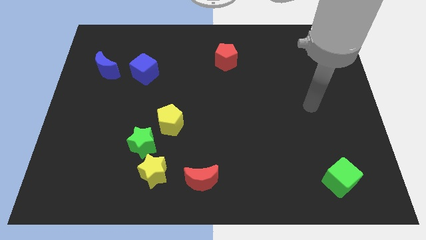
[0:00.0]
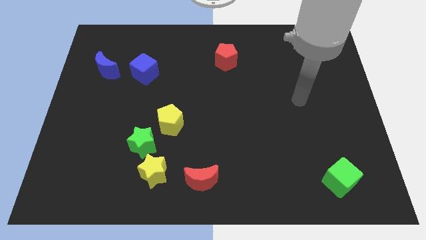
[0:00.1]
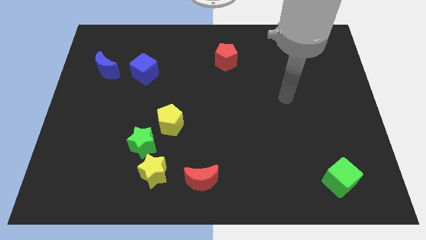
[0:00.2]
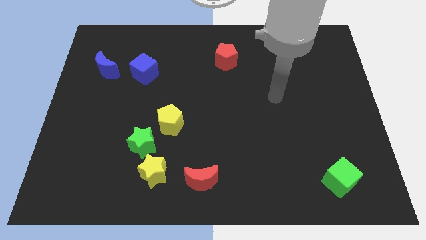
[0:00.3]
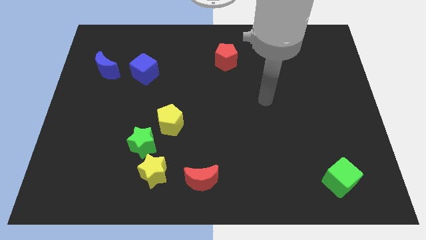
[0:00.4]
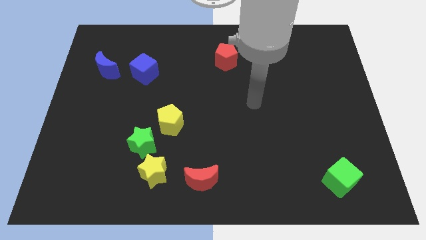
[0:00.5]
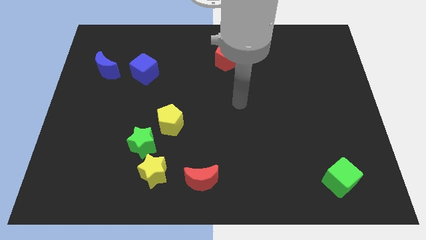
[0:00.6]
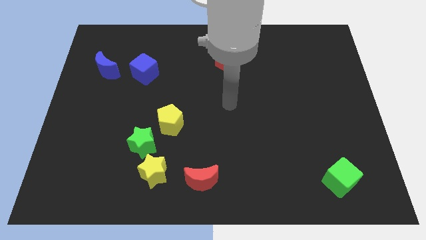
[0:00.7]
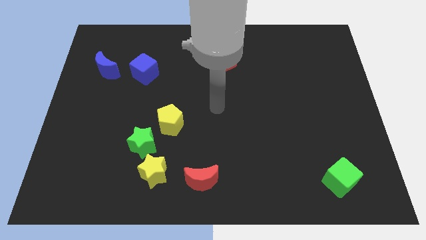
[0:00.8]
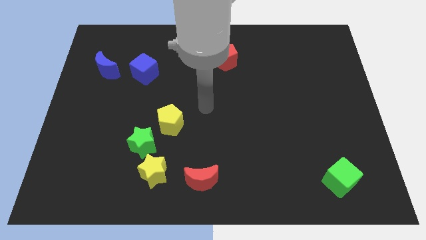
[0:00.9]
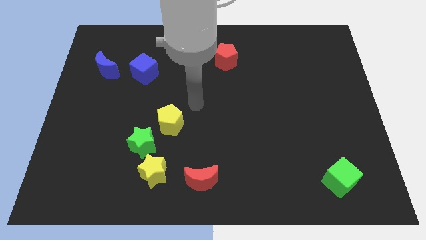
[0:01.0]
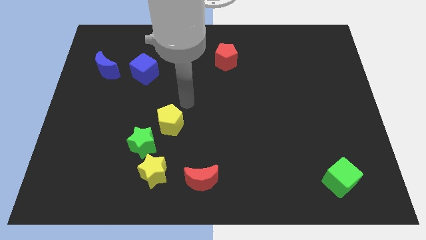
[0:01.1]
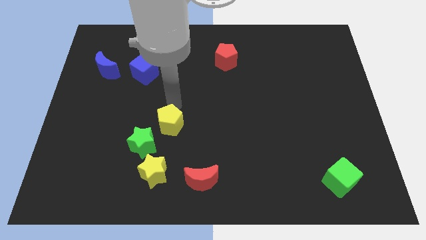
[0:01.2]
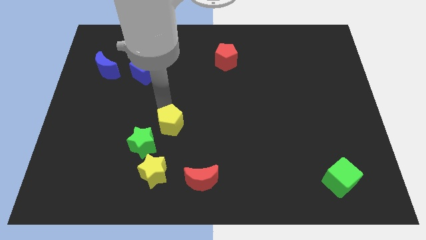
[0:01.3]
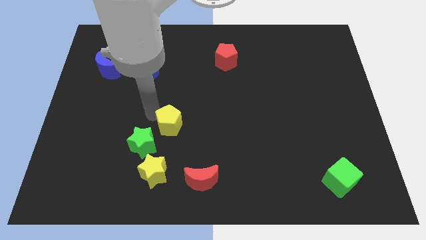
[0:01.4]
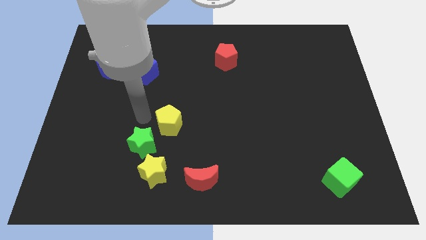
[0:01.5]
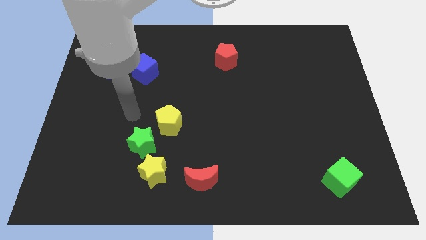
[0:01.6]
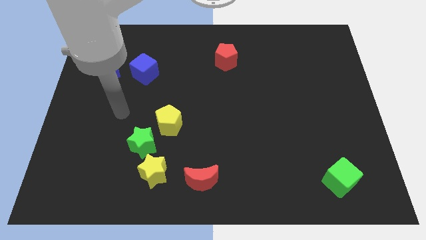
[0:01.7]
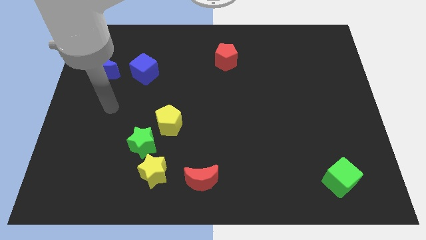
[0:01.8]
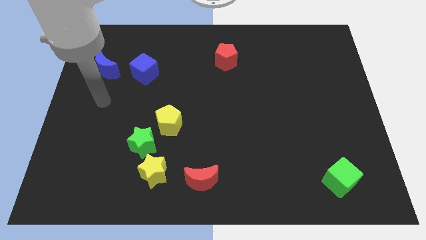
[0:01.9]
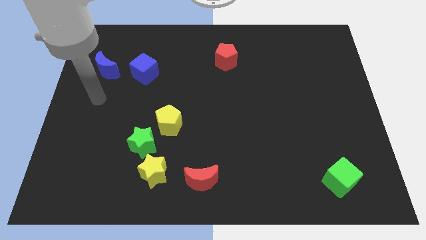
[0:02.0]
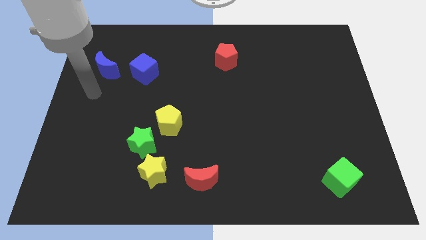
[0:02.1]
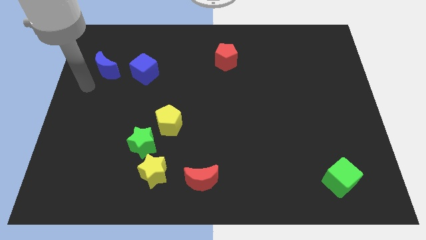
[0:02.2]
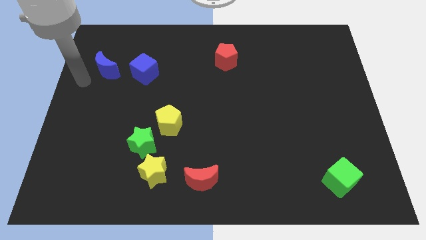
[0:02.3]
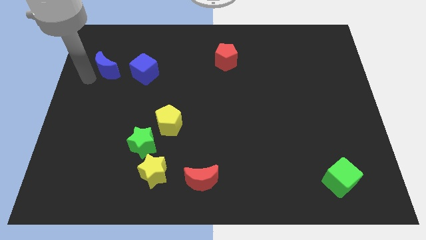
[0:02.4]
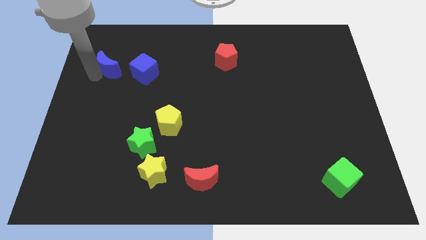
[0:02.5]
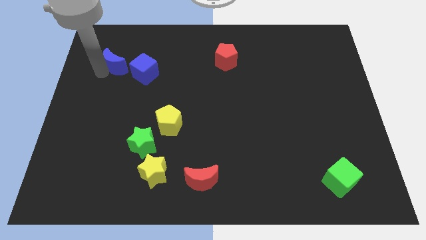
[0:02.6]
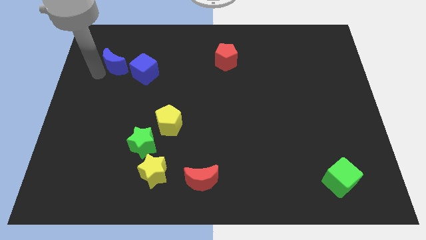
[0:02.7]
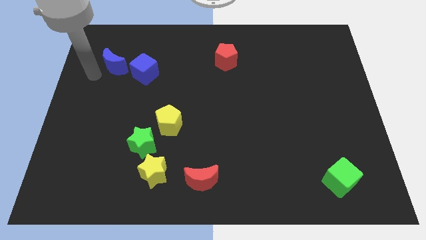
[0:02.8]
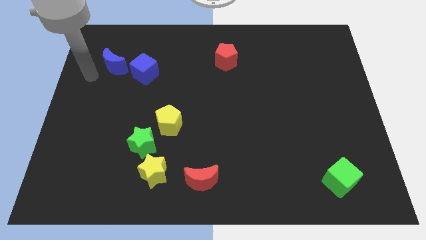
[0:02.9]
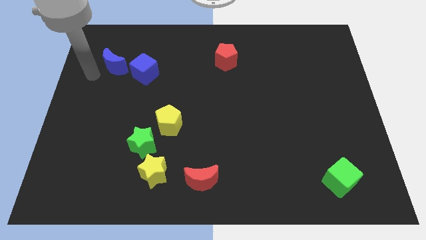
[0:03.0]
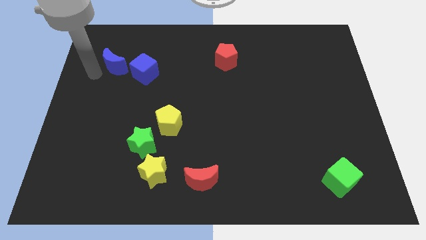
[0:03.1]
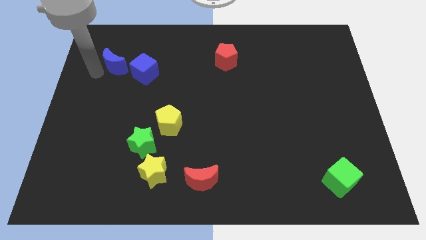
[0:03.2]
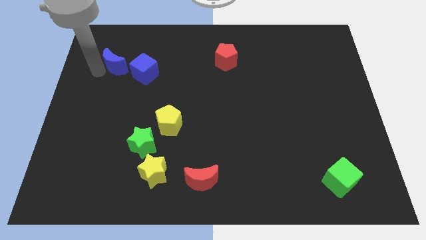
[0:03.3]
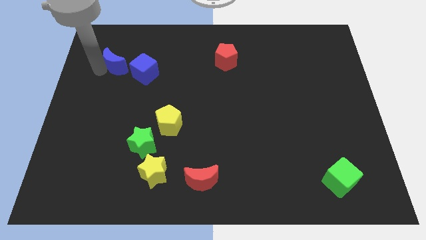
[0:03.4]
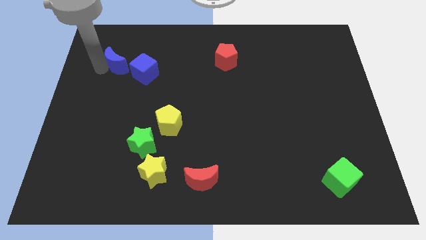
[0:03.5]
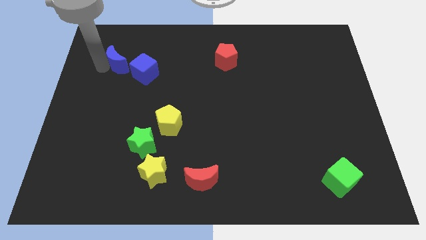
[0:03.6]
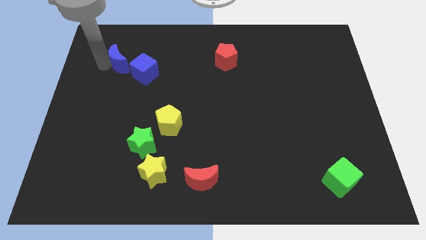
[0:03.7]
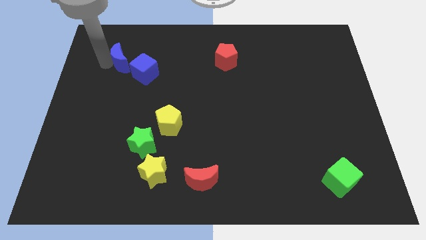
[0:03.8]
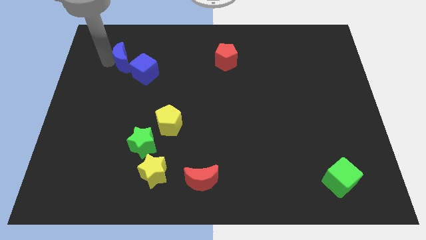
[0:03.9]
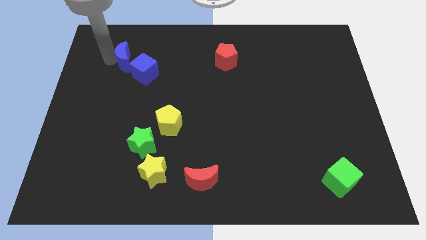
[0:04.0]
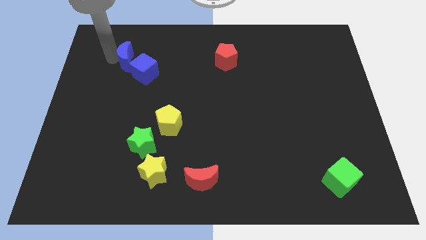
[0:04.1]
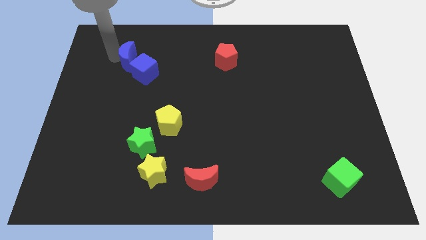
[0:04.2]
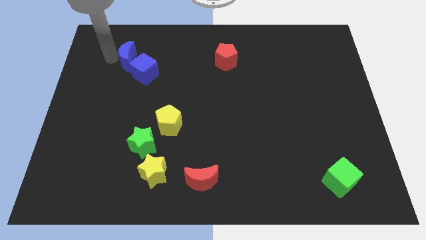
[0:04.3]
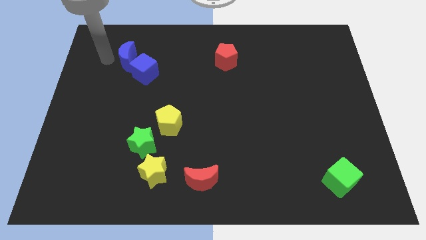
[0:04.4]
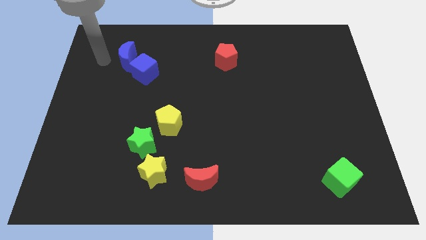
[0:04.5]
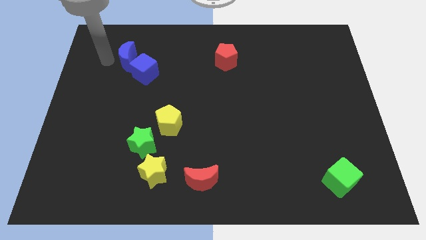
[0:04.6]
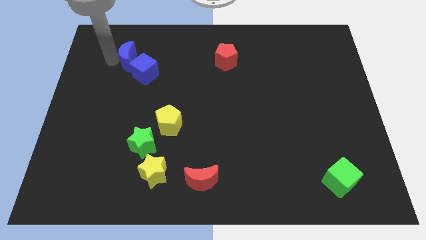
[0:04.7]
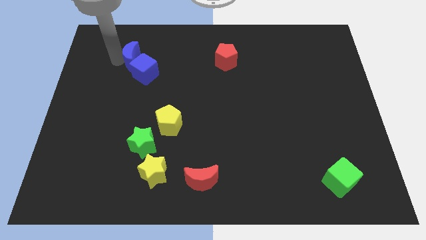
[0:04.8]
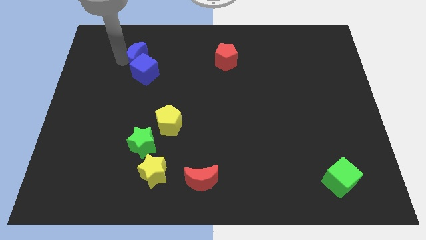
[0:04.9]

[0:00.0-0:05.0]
move the blue moon to the right slightly

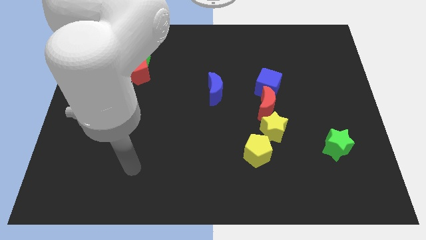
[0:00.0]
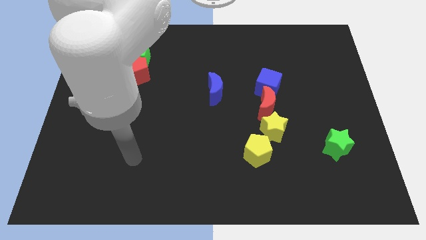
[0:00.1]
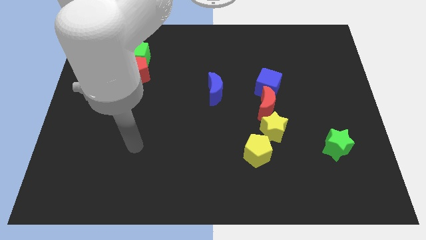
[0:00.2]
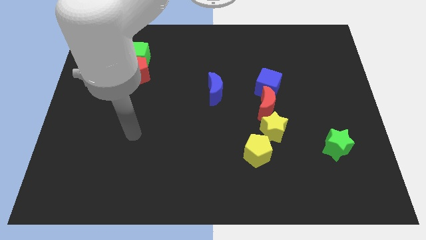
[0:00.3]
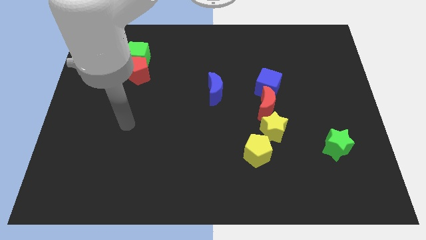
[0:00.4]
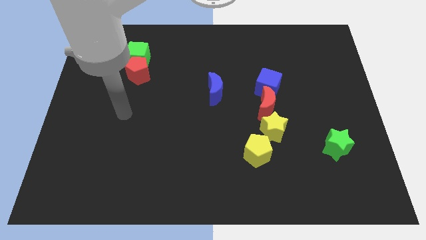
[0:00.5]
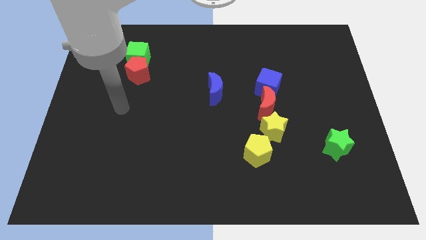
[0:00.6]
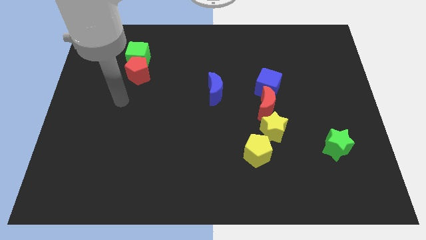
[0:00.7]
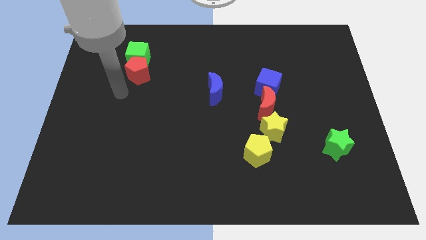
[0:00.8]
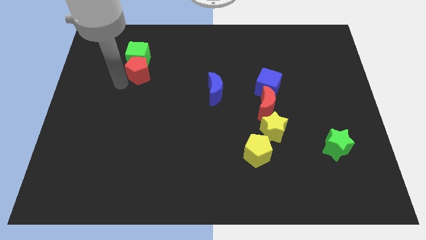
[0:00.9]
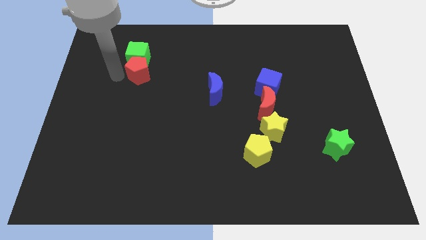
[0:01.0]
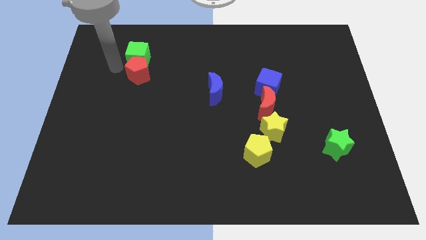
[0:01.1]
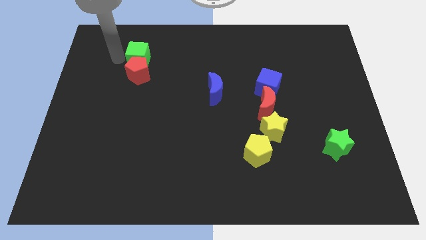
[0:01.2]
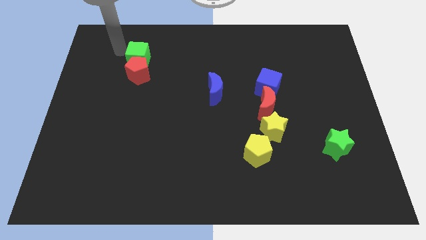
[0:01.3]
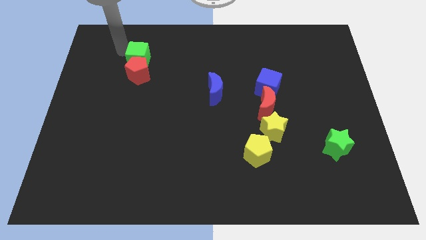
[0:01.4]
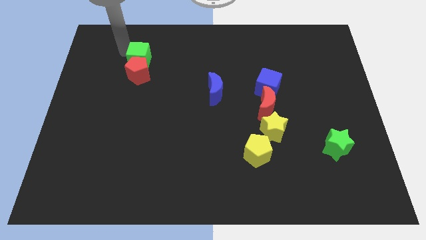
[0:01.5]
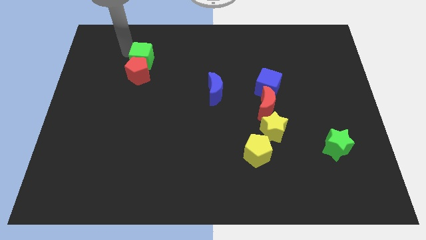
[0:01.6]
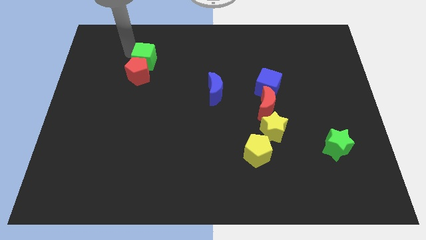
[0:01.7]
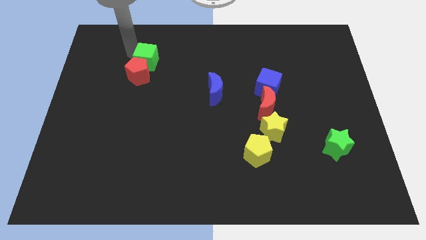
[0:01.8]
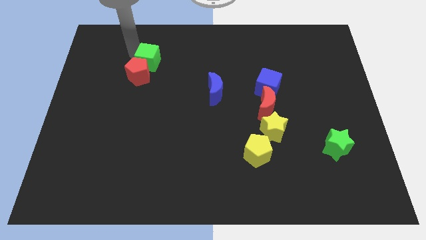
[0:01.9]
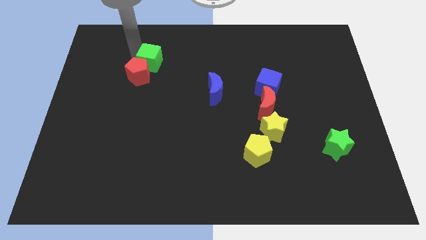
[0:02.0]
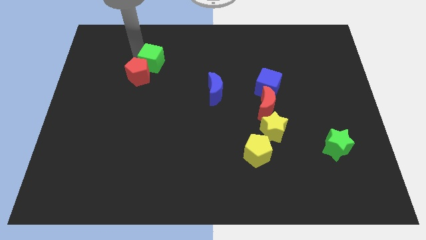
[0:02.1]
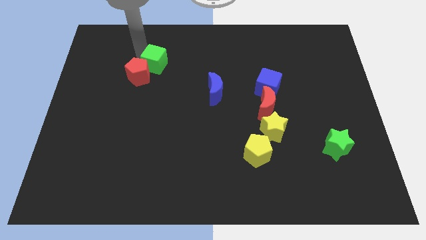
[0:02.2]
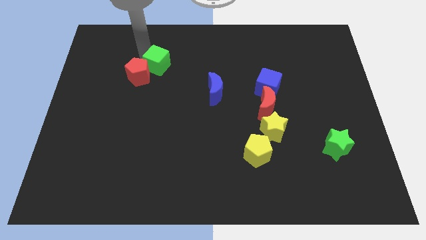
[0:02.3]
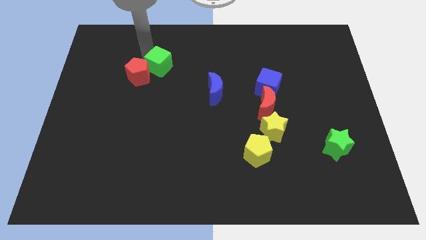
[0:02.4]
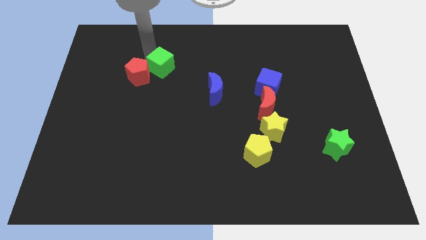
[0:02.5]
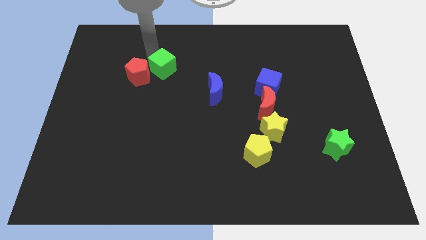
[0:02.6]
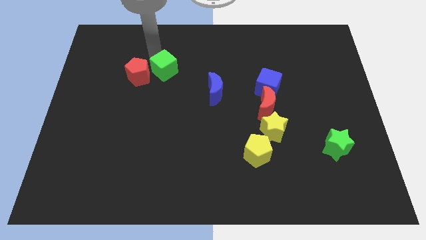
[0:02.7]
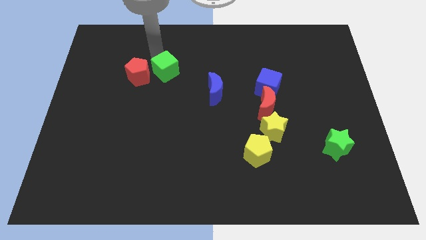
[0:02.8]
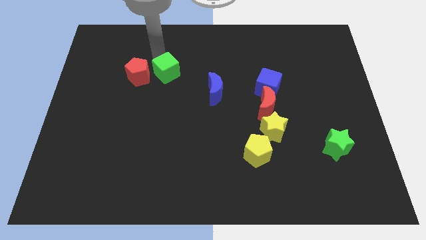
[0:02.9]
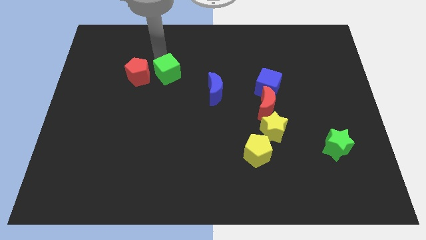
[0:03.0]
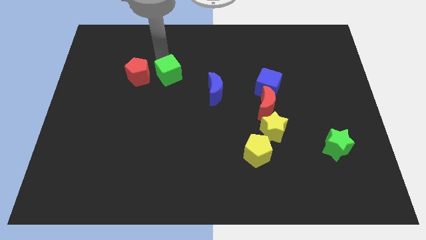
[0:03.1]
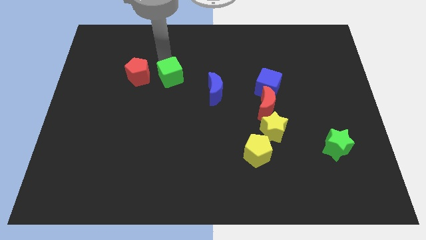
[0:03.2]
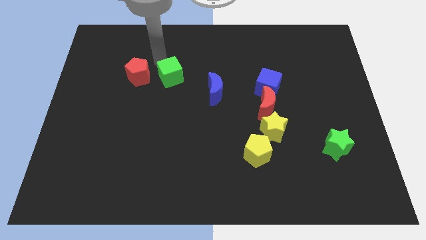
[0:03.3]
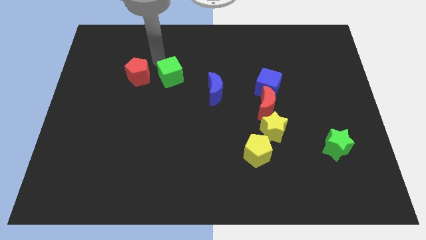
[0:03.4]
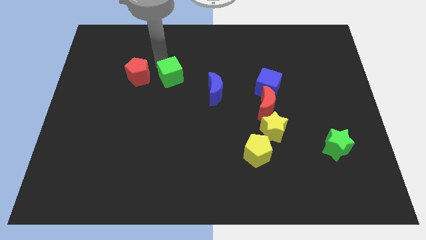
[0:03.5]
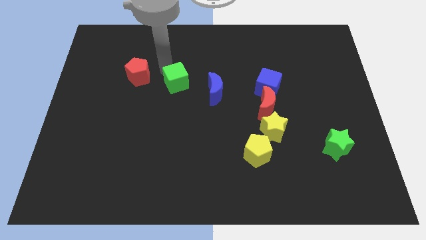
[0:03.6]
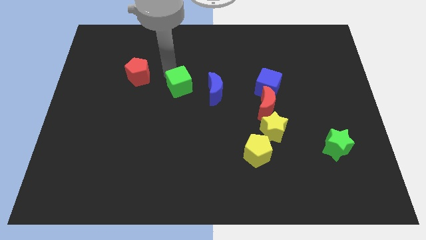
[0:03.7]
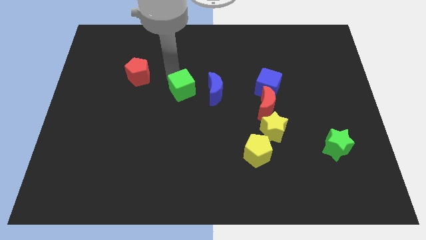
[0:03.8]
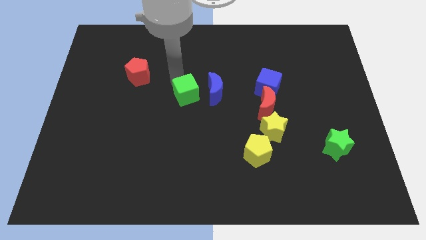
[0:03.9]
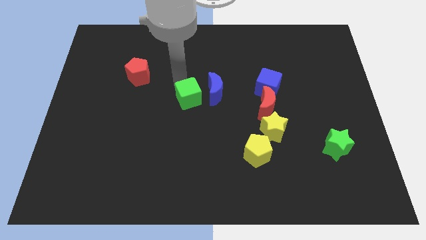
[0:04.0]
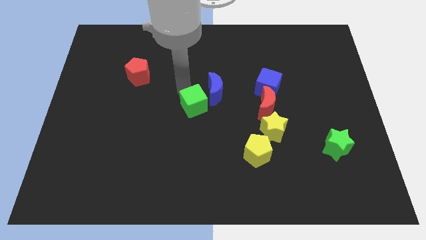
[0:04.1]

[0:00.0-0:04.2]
push the green cube down and then right
